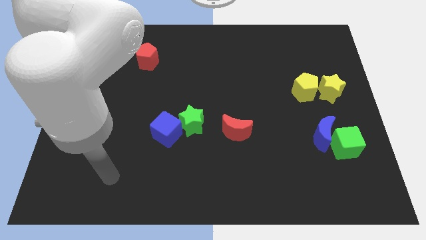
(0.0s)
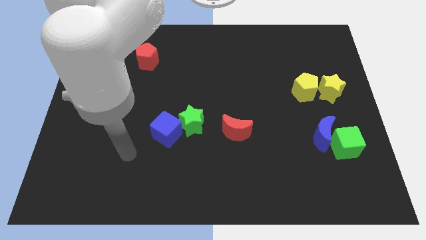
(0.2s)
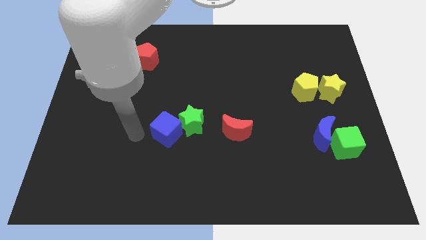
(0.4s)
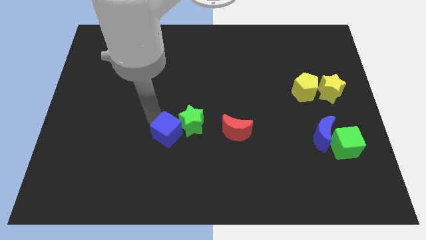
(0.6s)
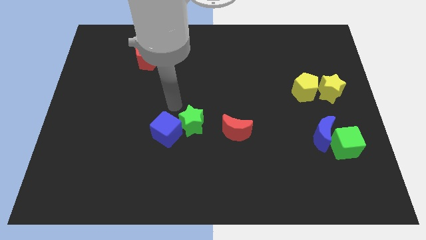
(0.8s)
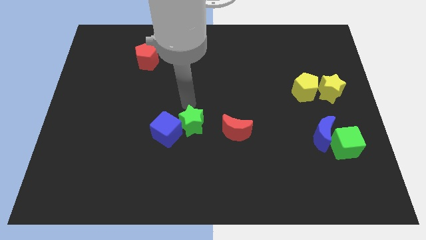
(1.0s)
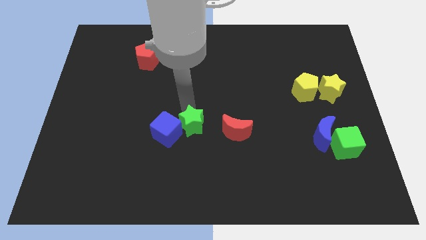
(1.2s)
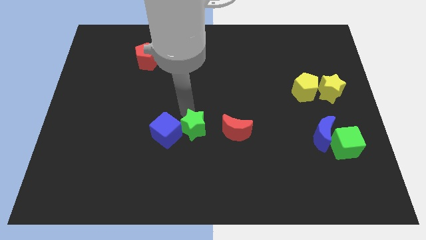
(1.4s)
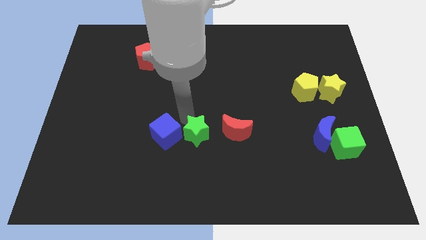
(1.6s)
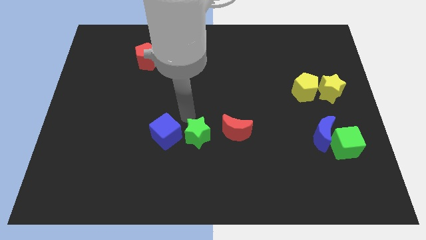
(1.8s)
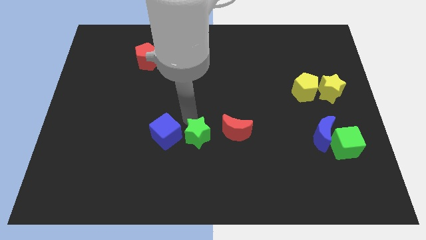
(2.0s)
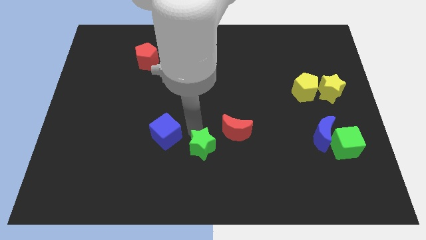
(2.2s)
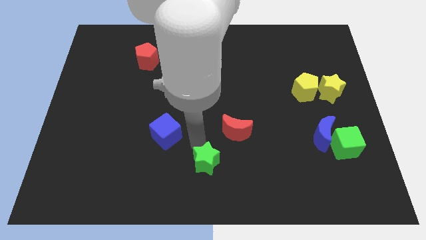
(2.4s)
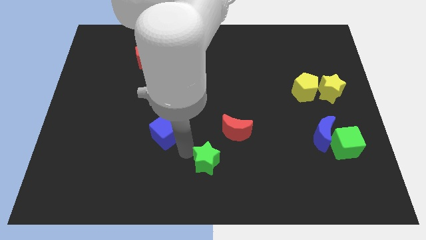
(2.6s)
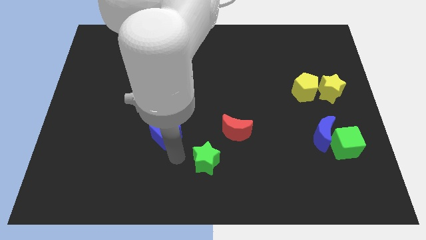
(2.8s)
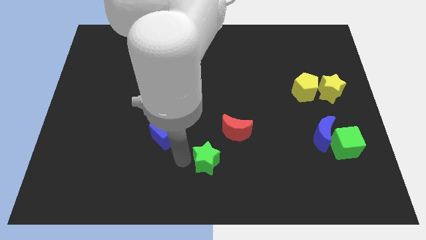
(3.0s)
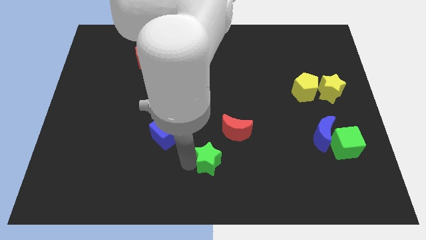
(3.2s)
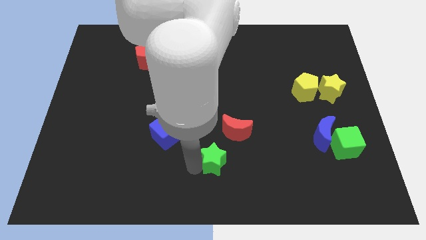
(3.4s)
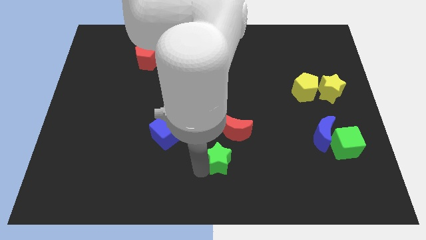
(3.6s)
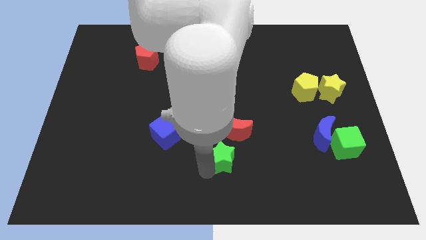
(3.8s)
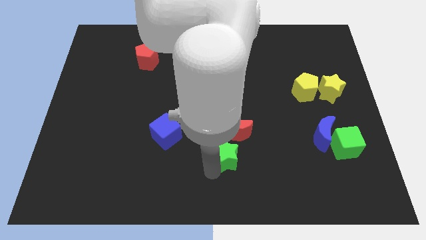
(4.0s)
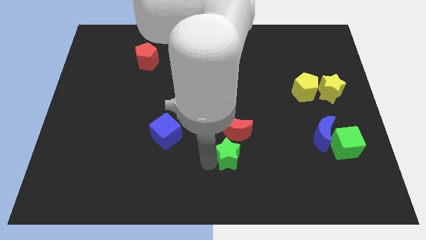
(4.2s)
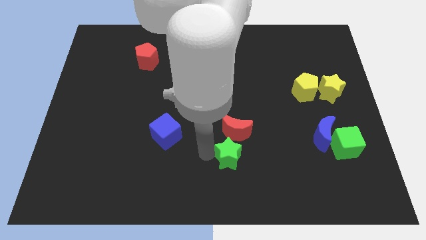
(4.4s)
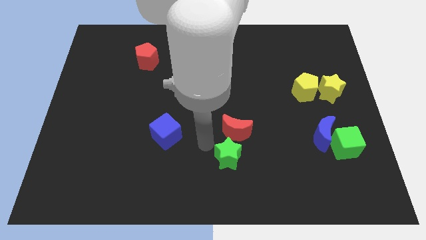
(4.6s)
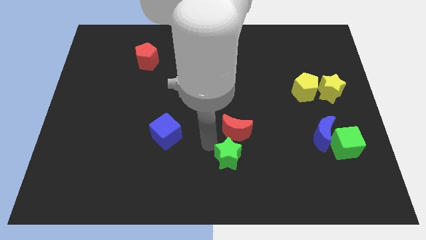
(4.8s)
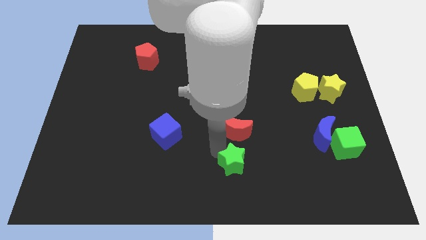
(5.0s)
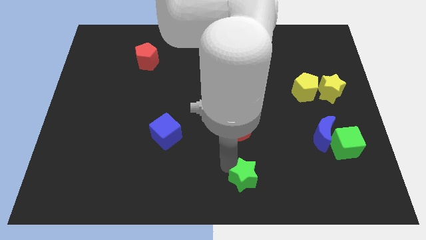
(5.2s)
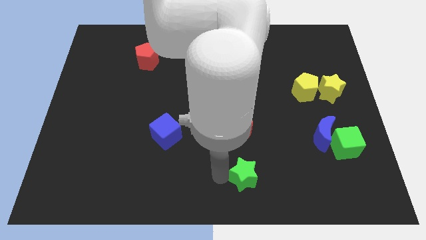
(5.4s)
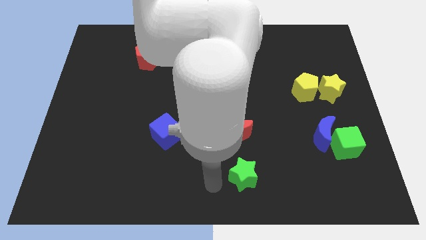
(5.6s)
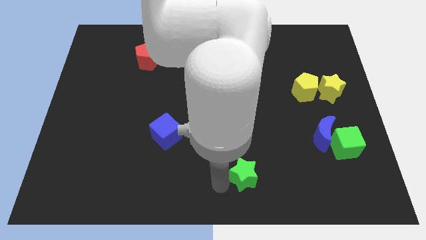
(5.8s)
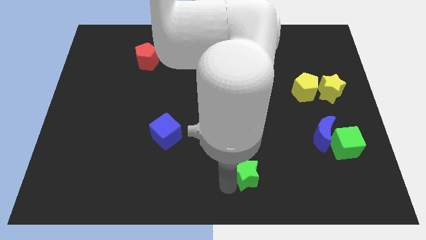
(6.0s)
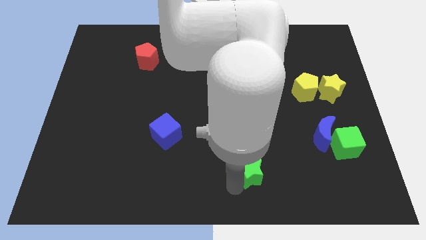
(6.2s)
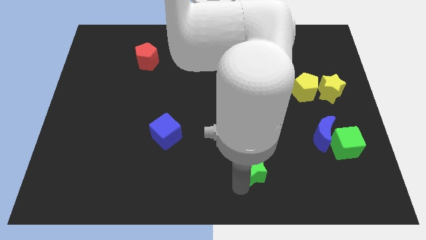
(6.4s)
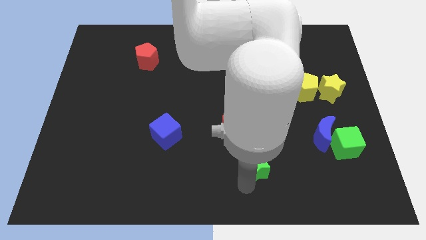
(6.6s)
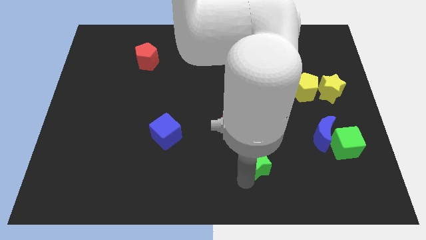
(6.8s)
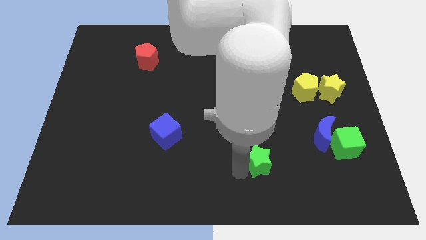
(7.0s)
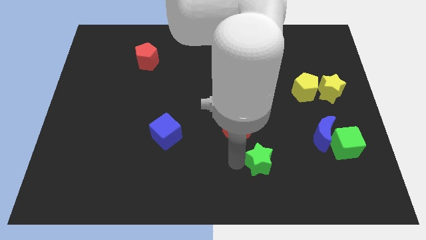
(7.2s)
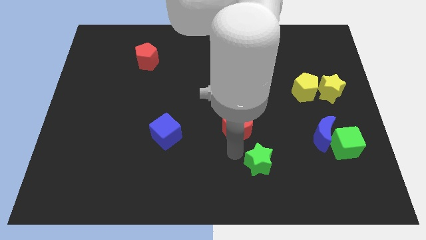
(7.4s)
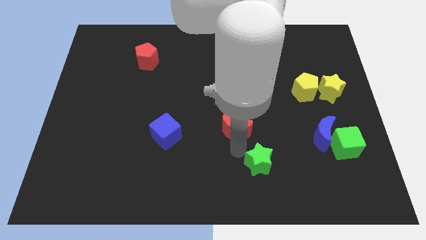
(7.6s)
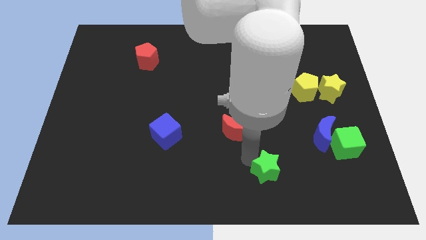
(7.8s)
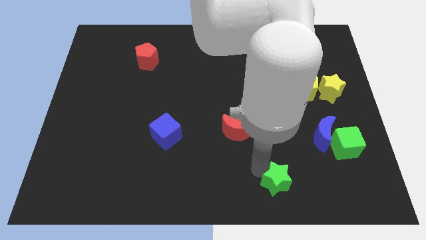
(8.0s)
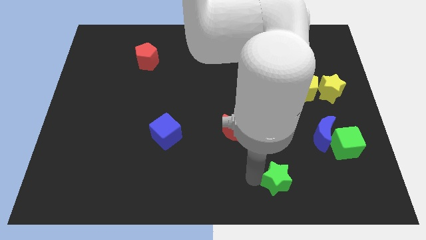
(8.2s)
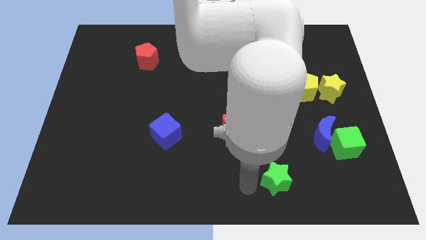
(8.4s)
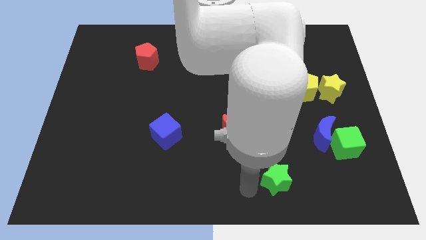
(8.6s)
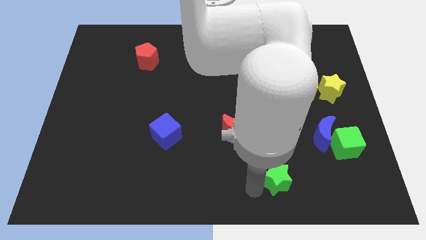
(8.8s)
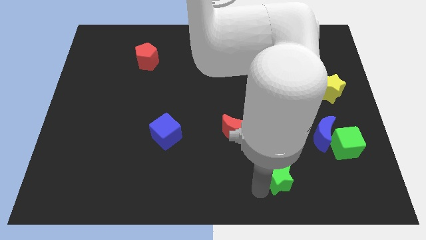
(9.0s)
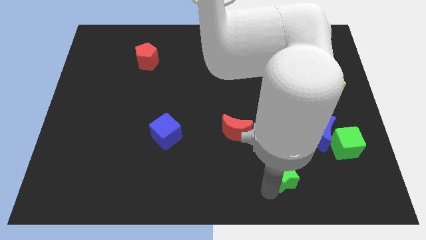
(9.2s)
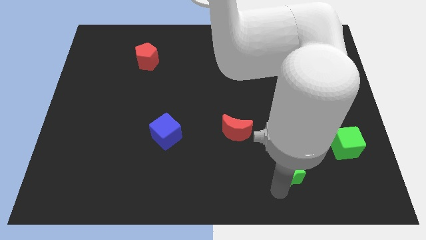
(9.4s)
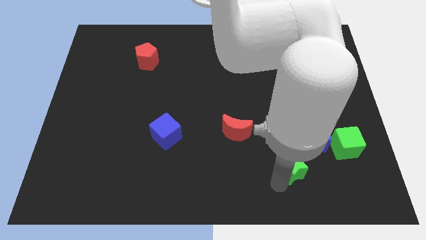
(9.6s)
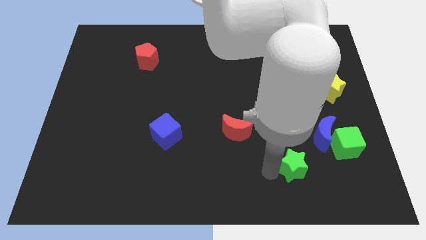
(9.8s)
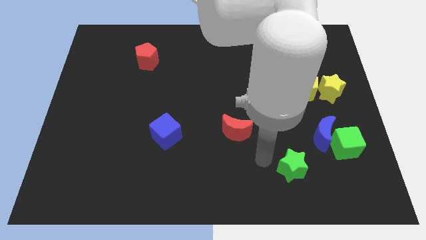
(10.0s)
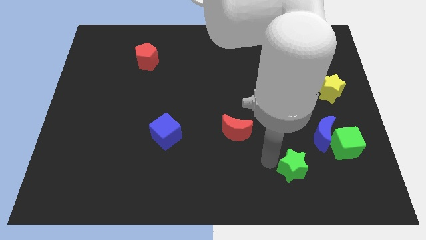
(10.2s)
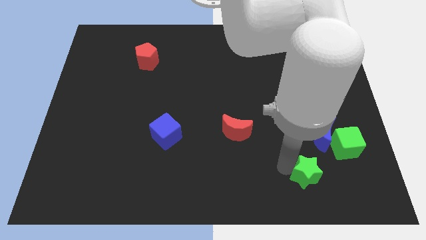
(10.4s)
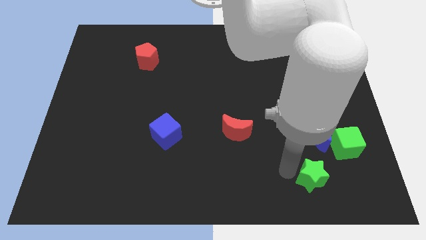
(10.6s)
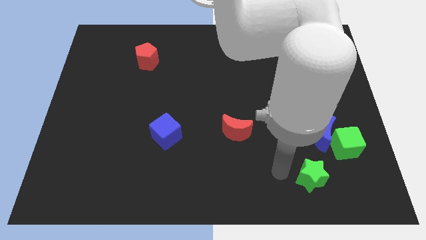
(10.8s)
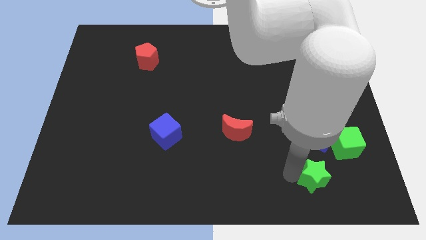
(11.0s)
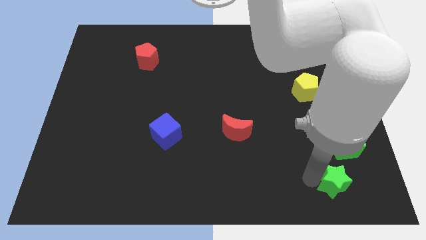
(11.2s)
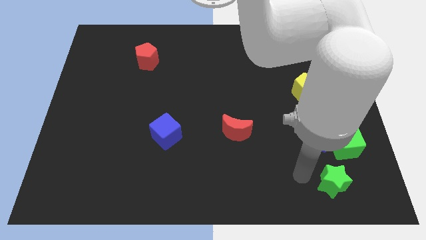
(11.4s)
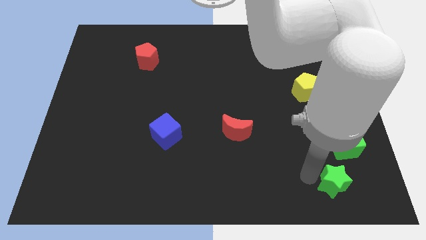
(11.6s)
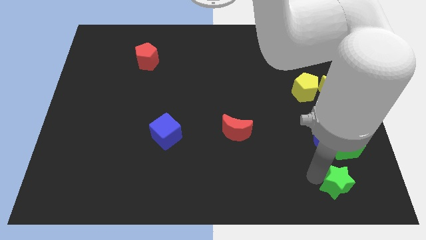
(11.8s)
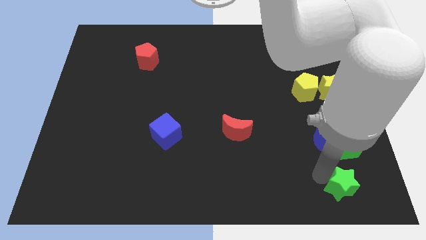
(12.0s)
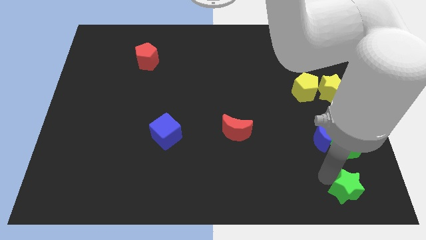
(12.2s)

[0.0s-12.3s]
slide the green star to the lower right corner
